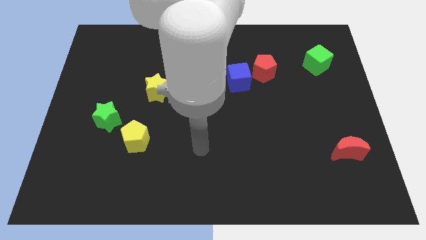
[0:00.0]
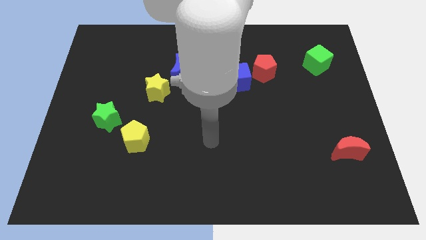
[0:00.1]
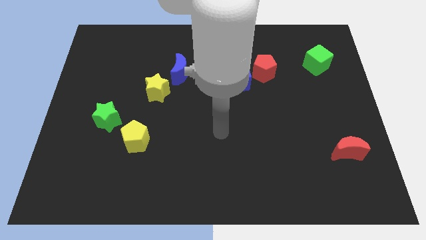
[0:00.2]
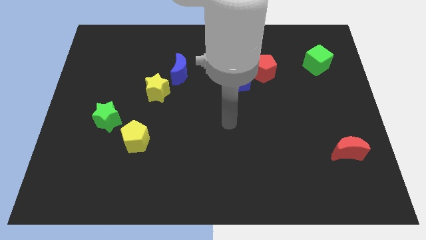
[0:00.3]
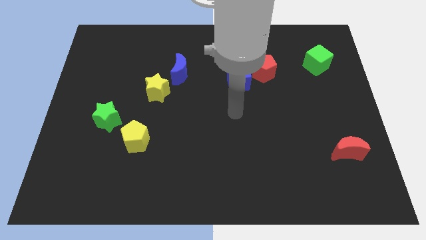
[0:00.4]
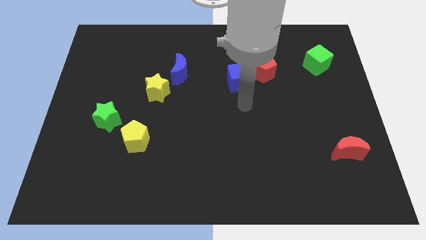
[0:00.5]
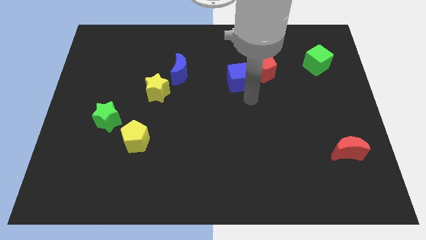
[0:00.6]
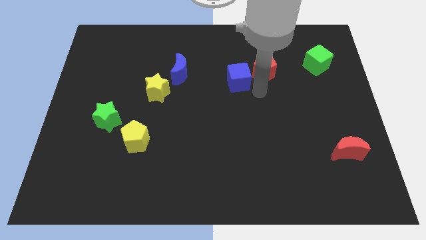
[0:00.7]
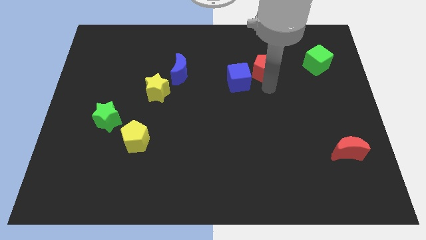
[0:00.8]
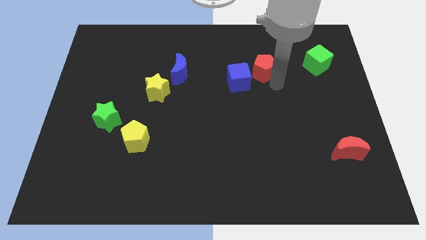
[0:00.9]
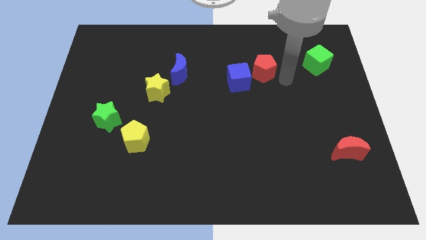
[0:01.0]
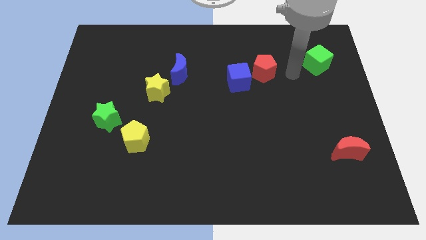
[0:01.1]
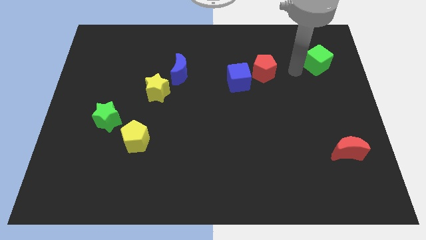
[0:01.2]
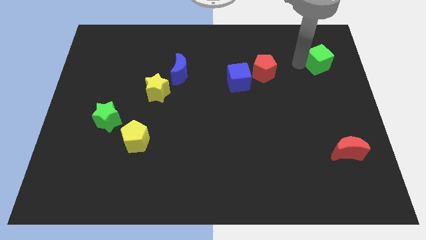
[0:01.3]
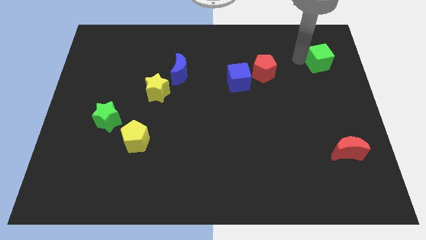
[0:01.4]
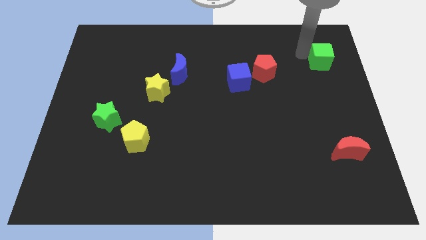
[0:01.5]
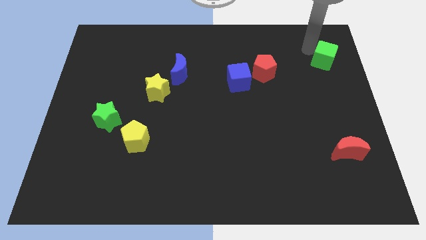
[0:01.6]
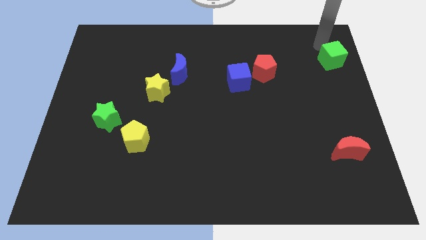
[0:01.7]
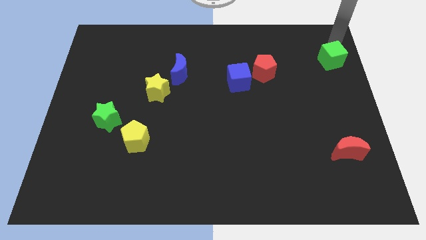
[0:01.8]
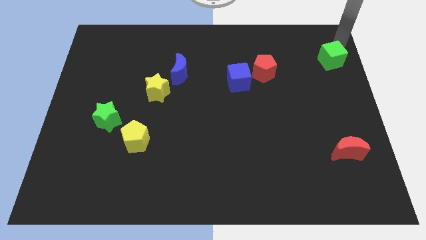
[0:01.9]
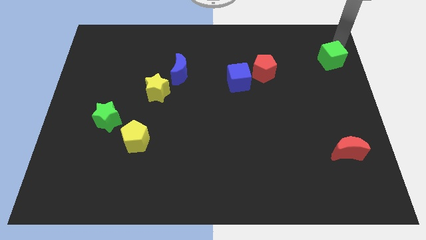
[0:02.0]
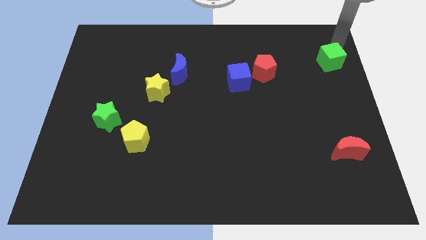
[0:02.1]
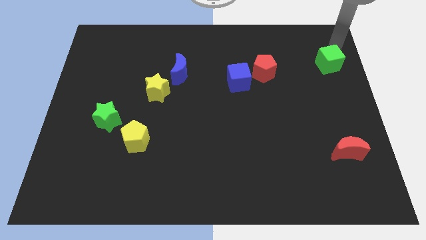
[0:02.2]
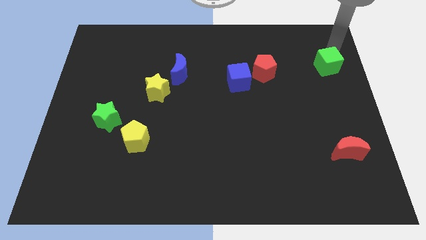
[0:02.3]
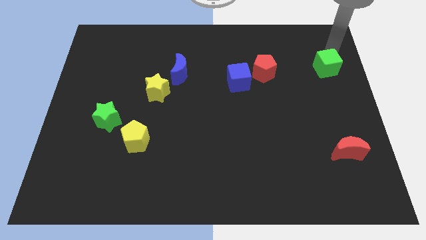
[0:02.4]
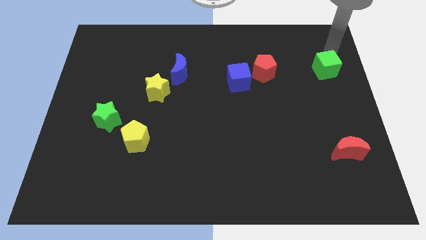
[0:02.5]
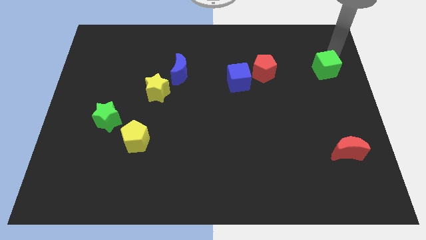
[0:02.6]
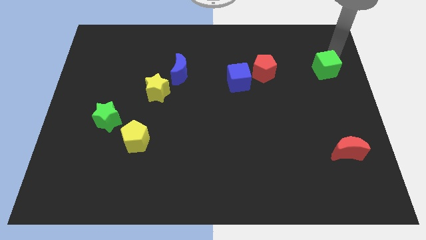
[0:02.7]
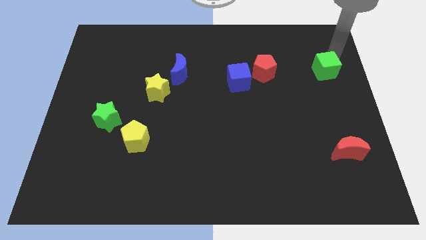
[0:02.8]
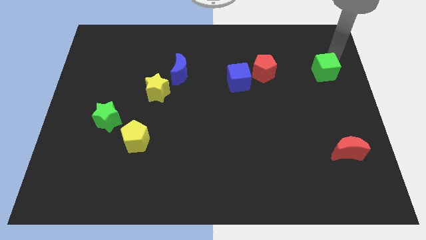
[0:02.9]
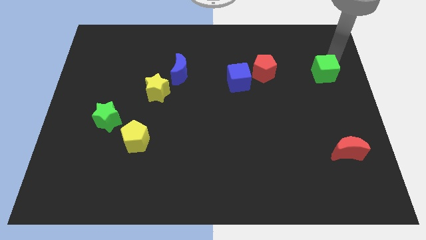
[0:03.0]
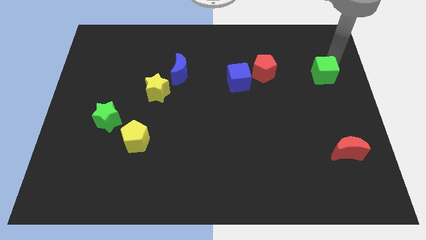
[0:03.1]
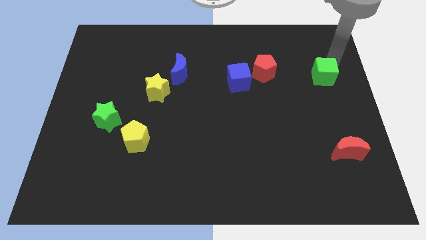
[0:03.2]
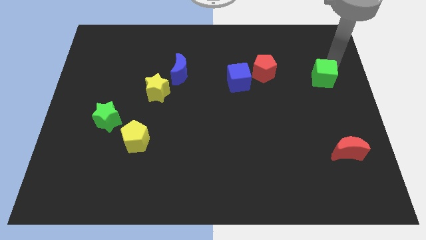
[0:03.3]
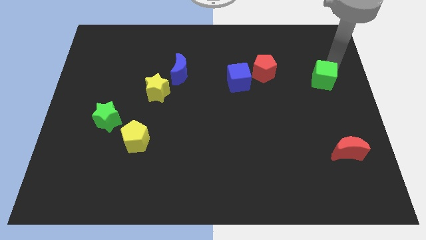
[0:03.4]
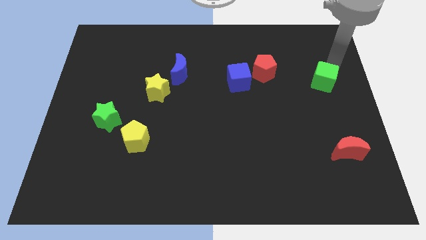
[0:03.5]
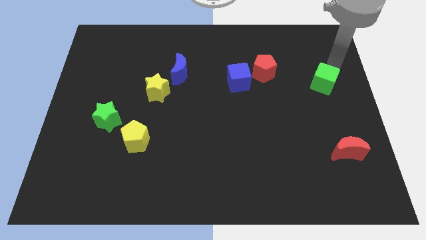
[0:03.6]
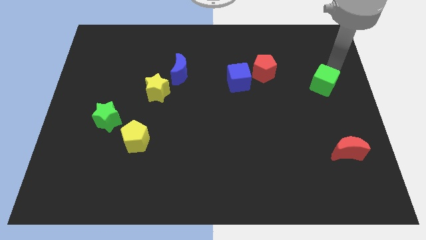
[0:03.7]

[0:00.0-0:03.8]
slightly move the green cube down

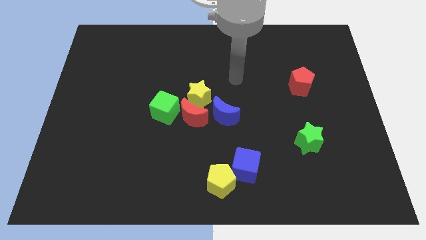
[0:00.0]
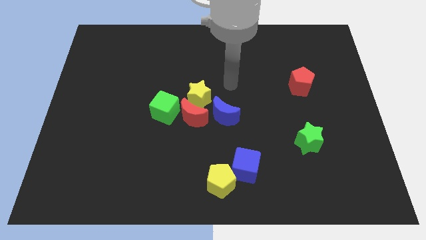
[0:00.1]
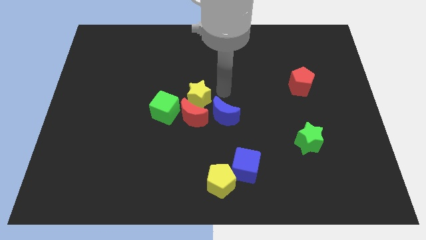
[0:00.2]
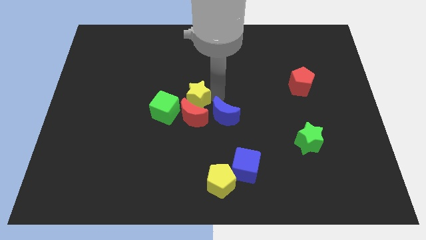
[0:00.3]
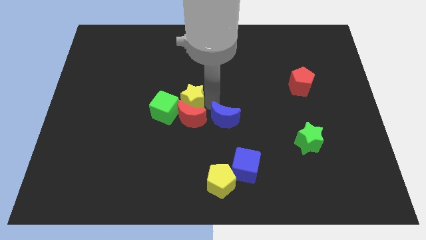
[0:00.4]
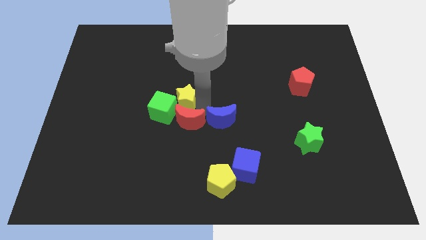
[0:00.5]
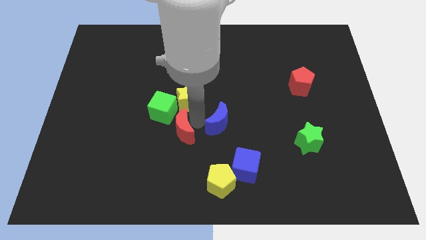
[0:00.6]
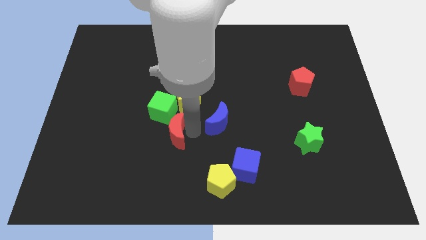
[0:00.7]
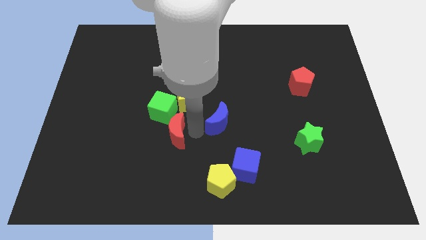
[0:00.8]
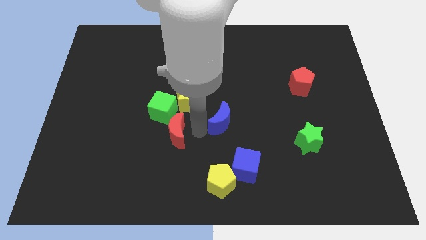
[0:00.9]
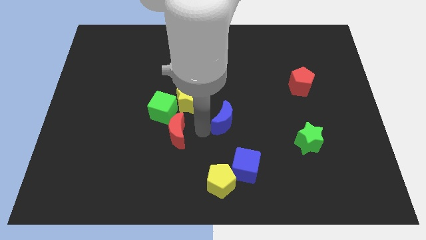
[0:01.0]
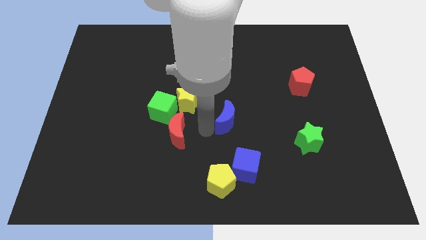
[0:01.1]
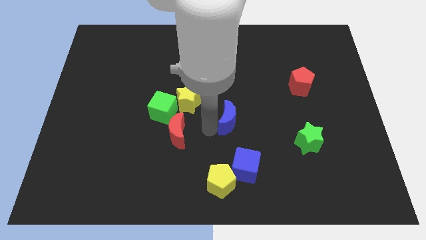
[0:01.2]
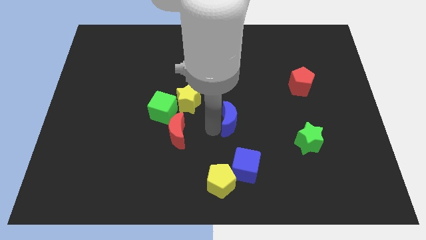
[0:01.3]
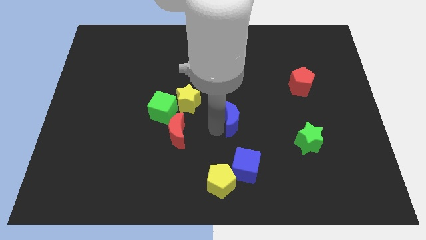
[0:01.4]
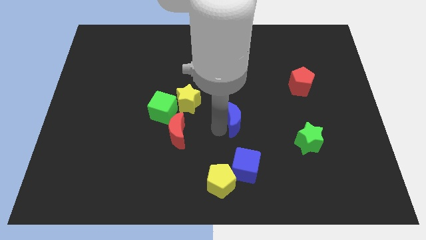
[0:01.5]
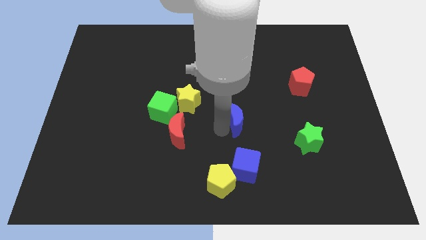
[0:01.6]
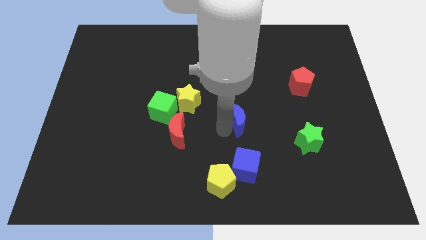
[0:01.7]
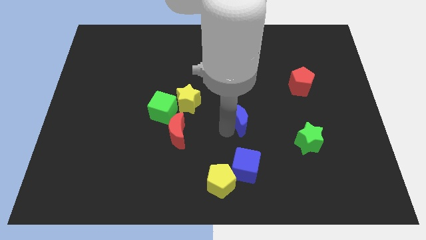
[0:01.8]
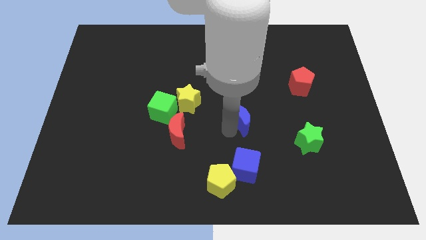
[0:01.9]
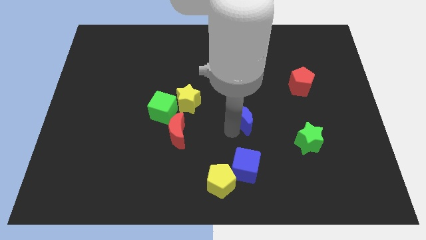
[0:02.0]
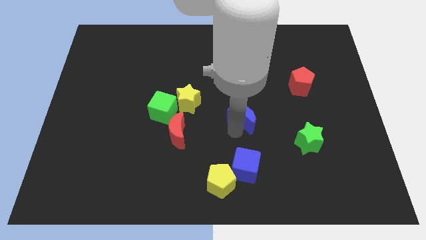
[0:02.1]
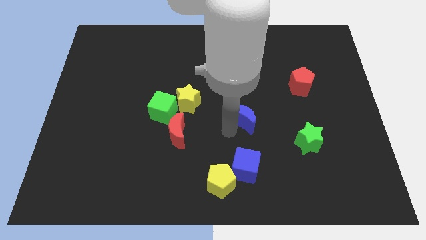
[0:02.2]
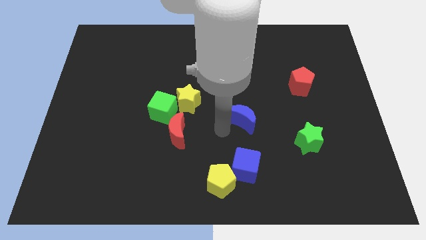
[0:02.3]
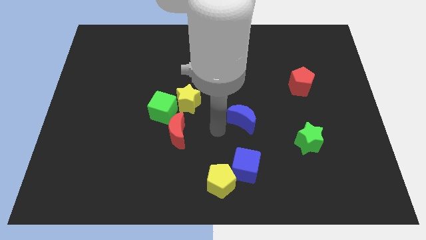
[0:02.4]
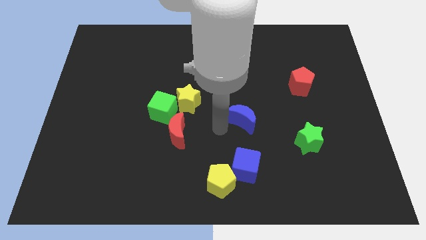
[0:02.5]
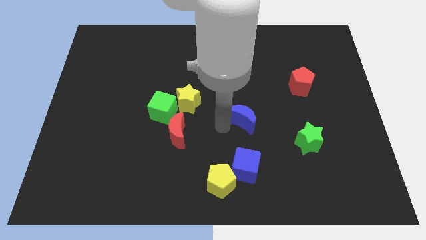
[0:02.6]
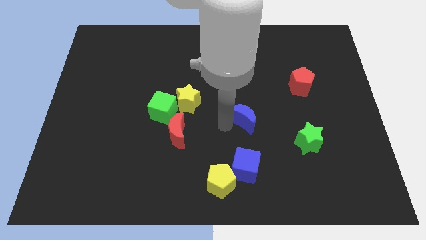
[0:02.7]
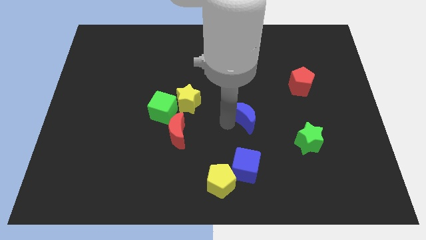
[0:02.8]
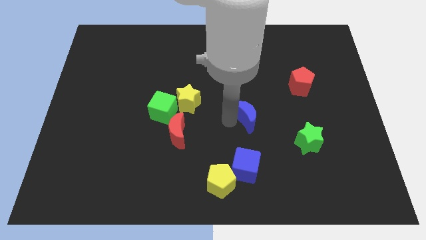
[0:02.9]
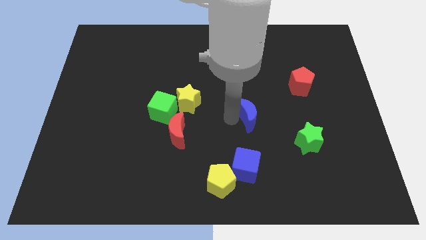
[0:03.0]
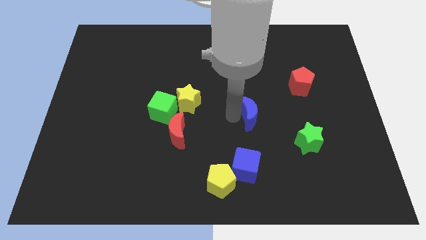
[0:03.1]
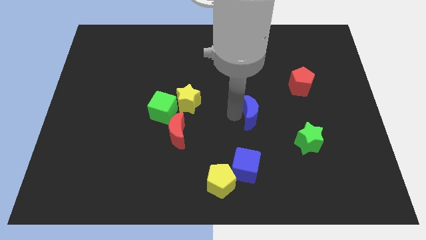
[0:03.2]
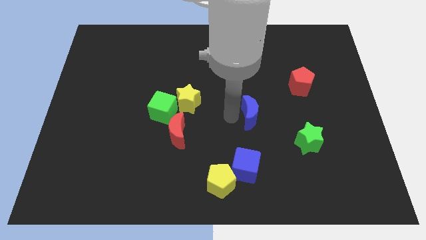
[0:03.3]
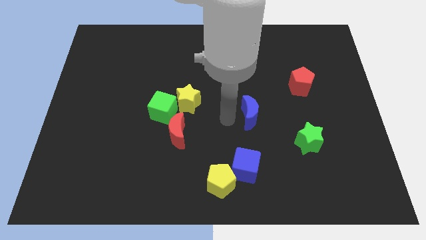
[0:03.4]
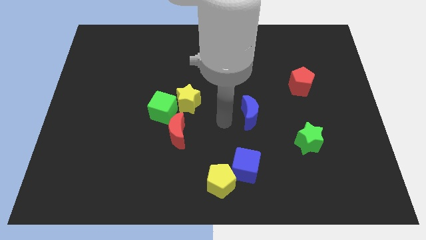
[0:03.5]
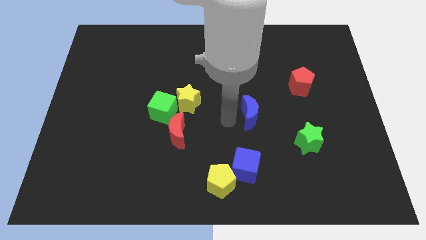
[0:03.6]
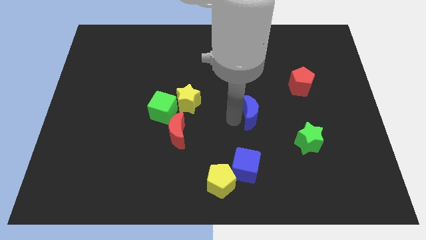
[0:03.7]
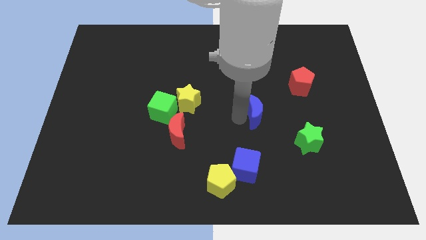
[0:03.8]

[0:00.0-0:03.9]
slightly slide the blue moon to the right

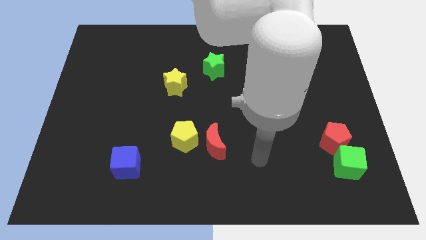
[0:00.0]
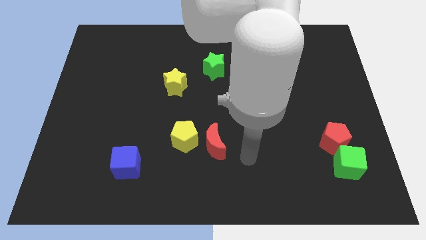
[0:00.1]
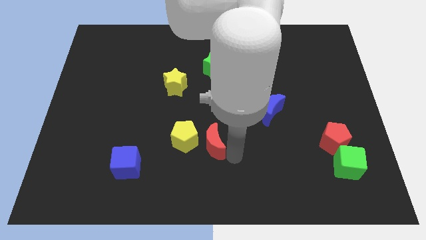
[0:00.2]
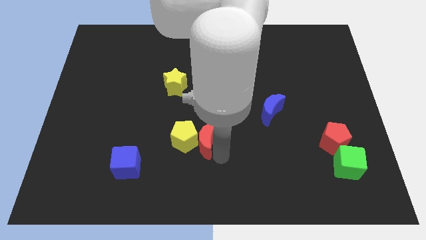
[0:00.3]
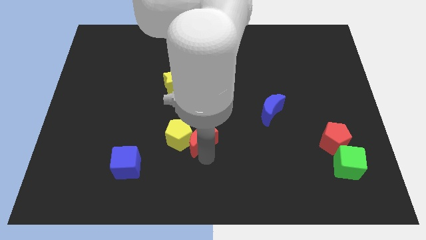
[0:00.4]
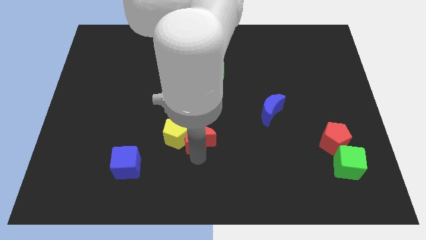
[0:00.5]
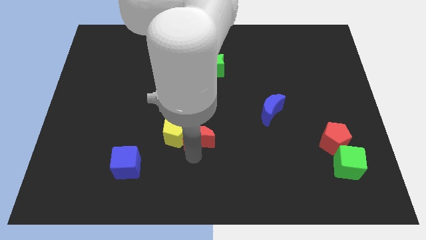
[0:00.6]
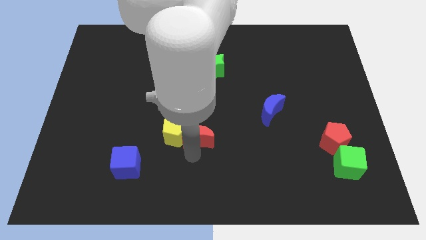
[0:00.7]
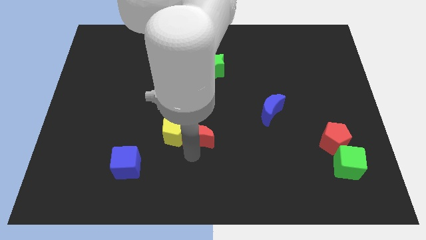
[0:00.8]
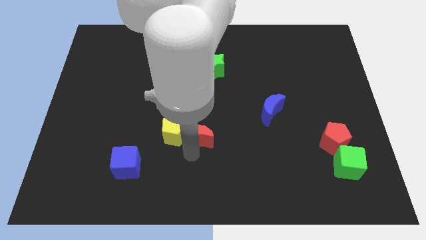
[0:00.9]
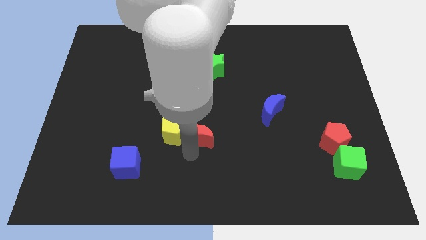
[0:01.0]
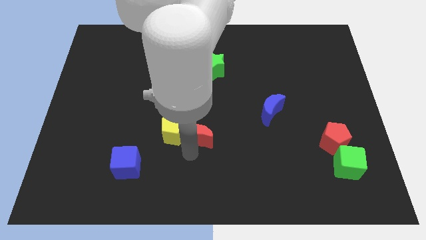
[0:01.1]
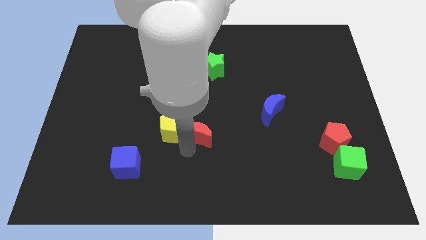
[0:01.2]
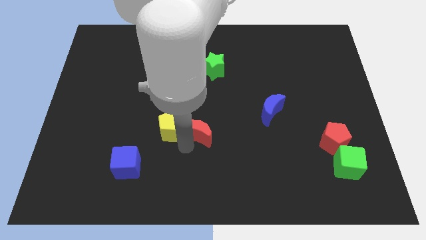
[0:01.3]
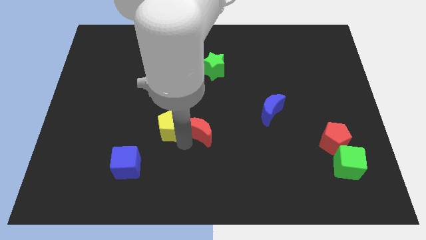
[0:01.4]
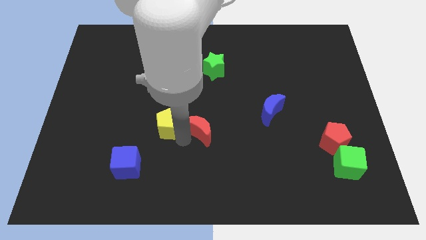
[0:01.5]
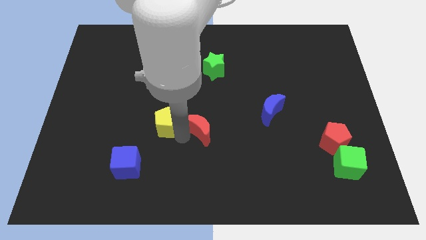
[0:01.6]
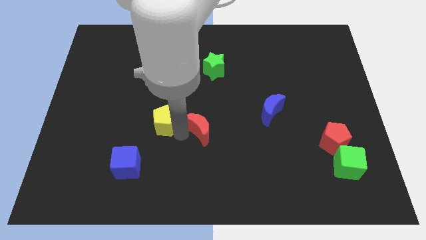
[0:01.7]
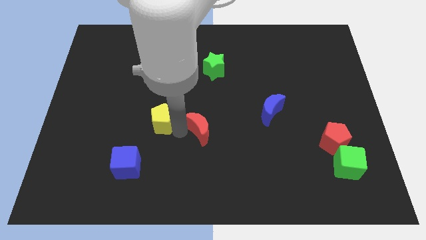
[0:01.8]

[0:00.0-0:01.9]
slide the yellow pentagon somewhat up and to the left
